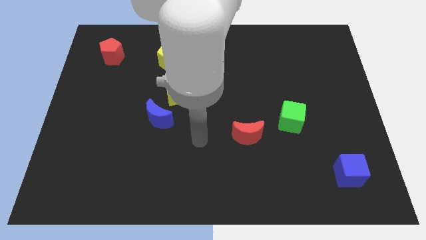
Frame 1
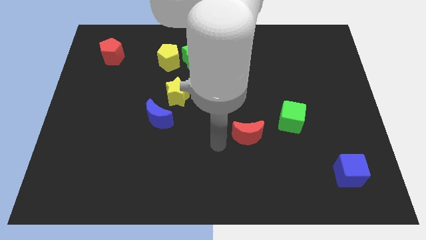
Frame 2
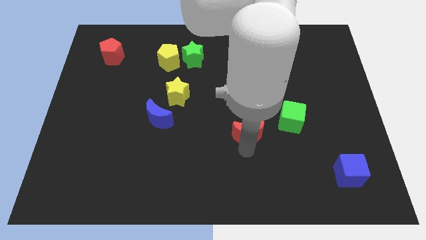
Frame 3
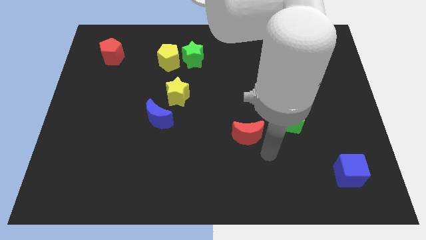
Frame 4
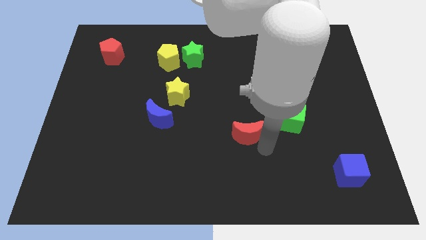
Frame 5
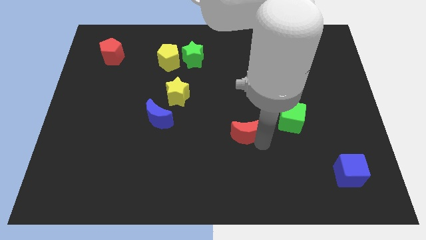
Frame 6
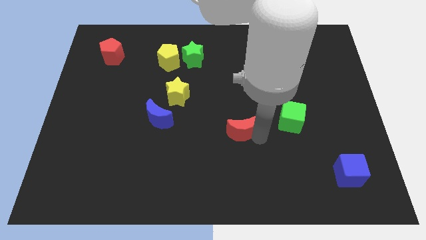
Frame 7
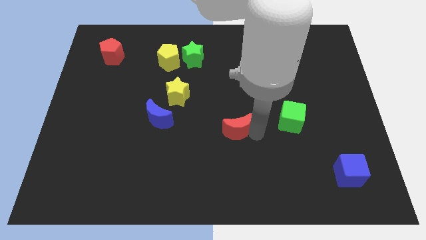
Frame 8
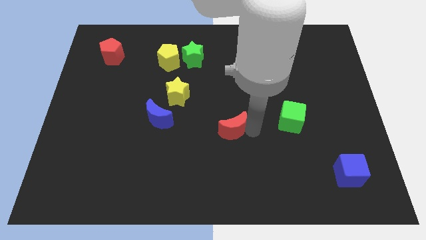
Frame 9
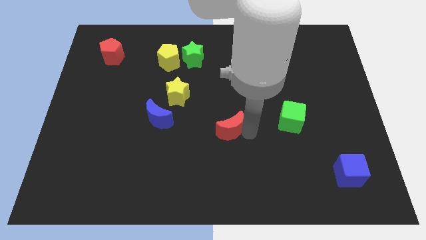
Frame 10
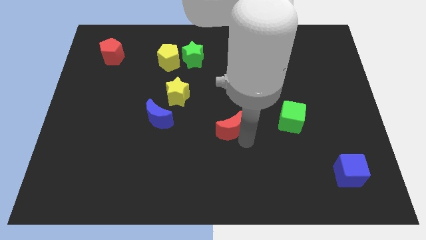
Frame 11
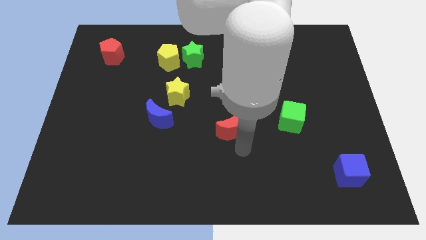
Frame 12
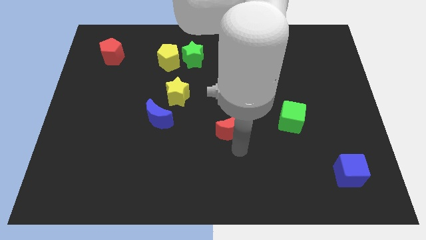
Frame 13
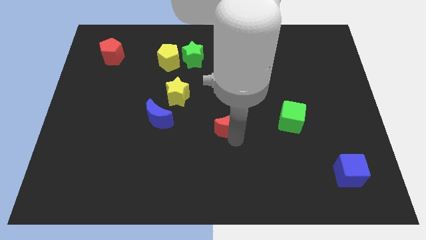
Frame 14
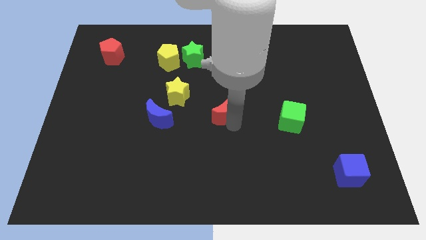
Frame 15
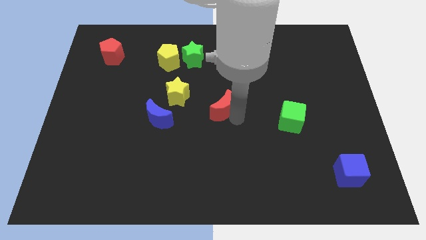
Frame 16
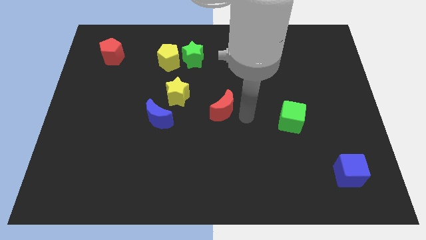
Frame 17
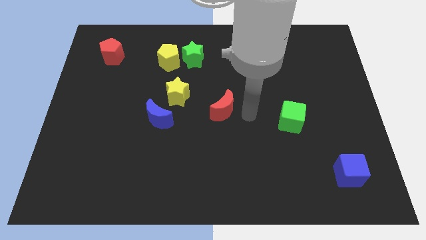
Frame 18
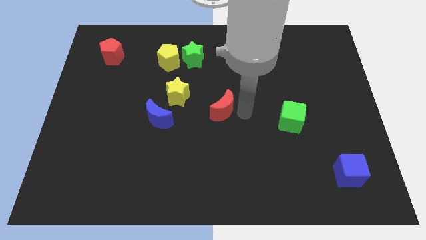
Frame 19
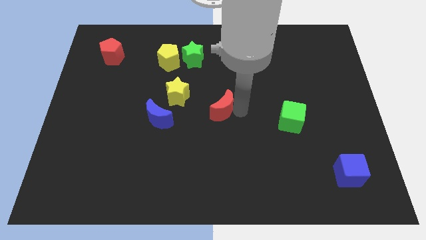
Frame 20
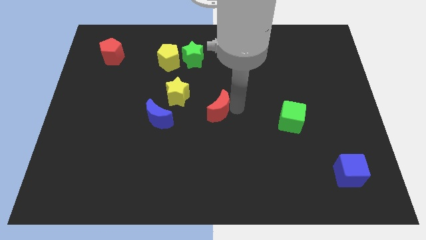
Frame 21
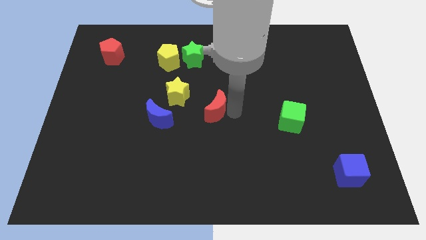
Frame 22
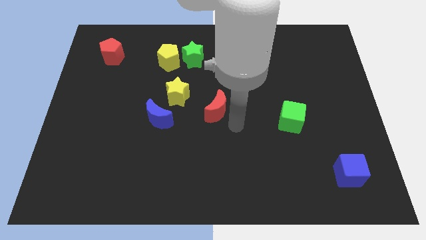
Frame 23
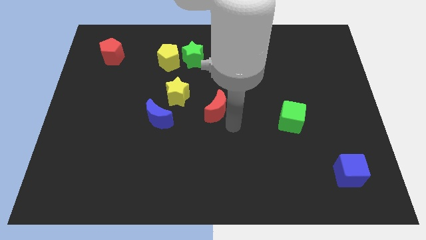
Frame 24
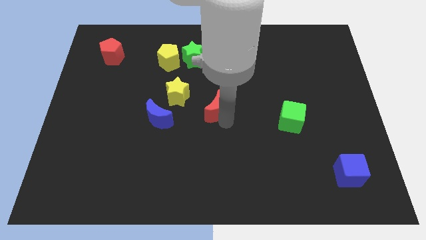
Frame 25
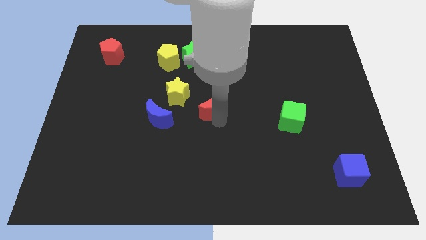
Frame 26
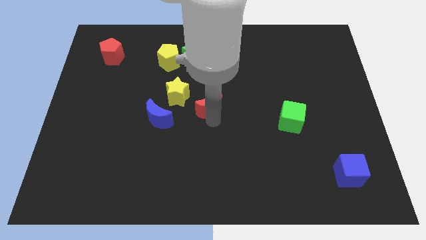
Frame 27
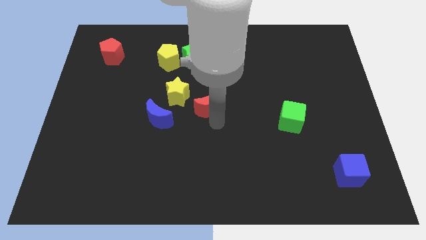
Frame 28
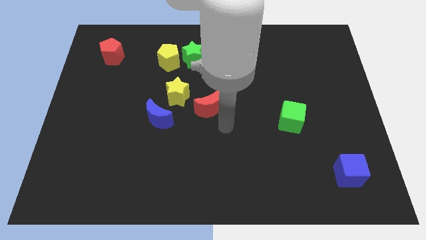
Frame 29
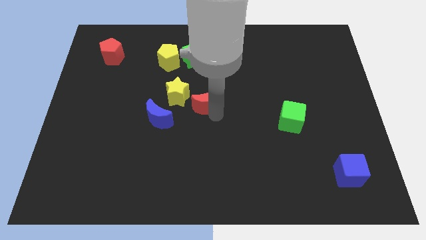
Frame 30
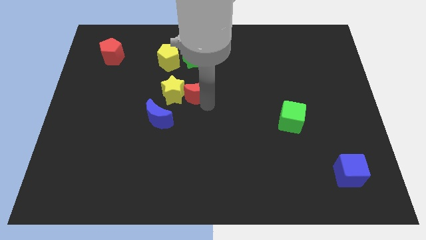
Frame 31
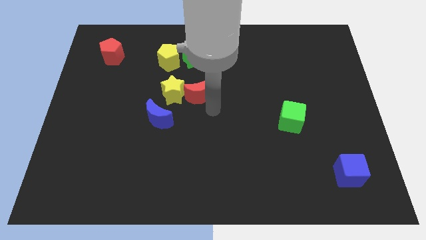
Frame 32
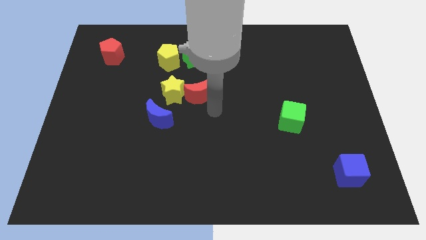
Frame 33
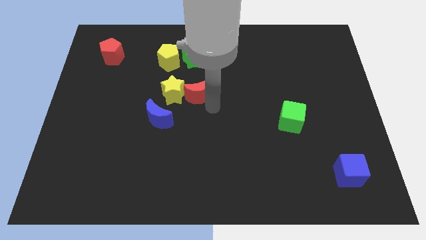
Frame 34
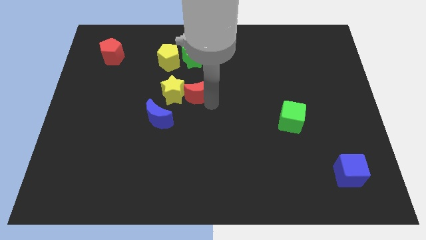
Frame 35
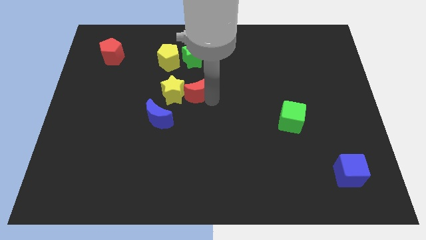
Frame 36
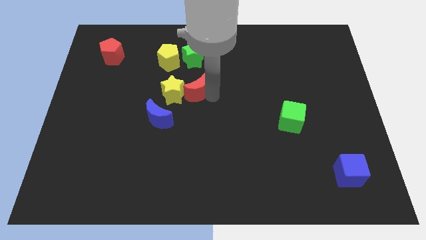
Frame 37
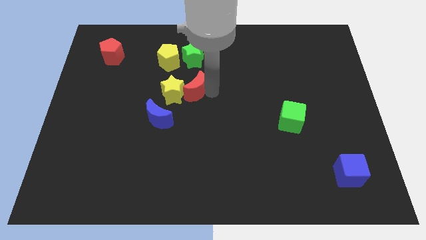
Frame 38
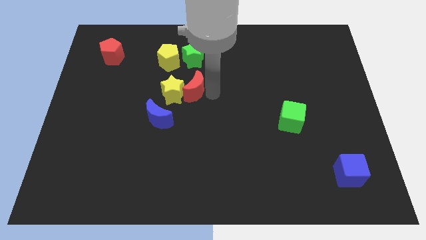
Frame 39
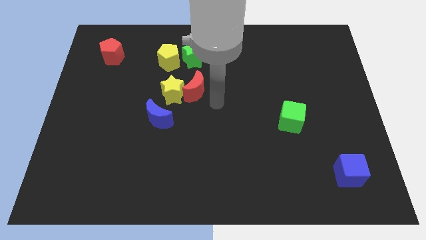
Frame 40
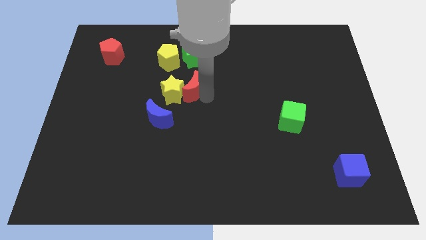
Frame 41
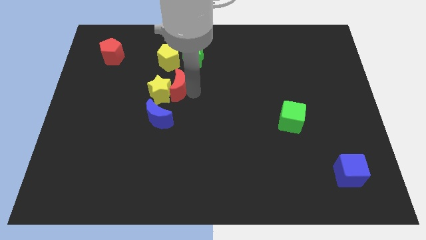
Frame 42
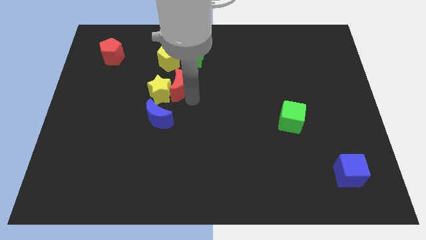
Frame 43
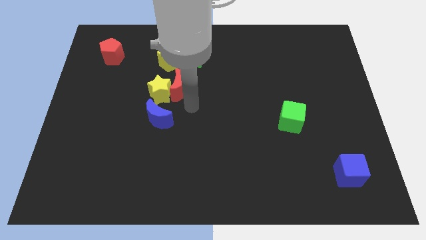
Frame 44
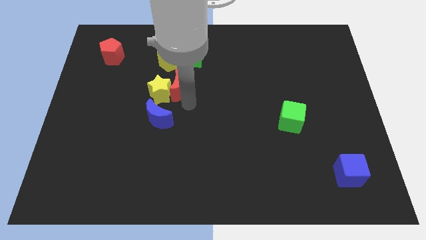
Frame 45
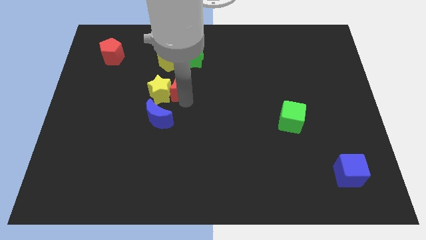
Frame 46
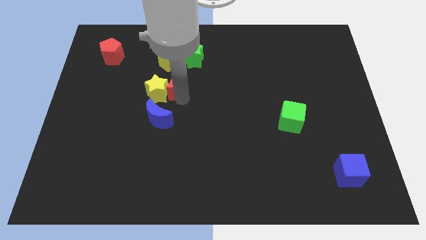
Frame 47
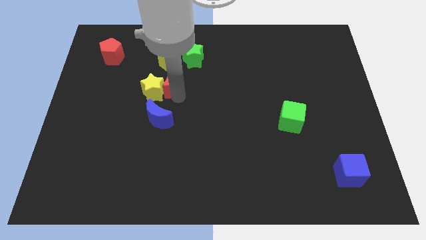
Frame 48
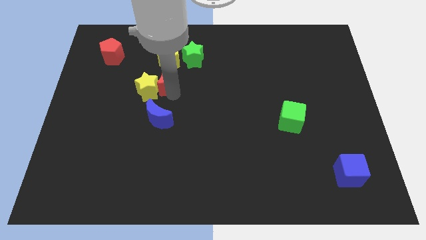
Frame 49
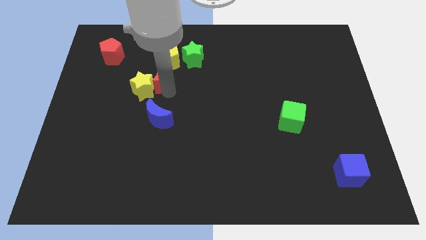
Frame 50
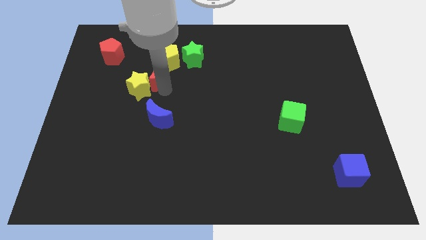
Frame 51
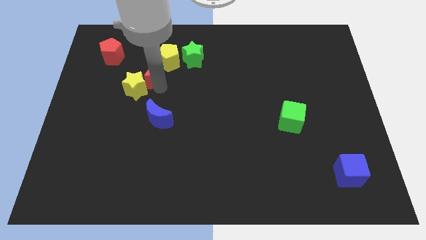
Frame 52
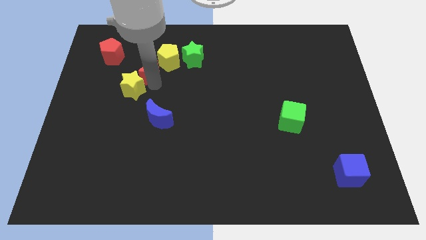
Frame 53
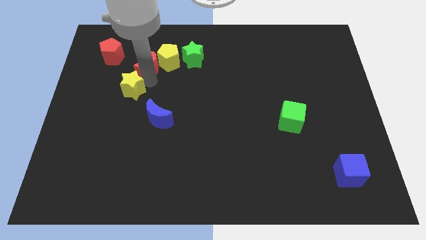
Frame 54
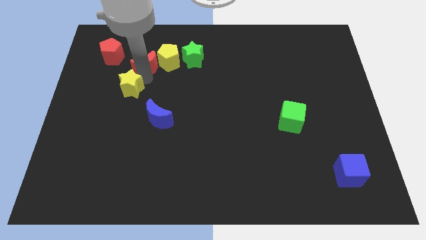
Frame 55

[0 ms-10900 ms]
put the red moon to the right side of the red pentagon

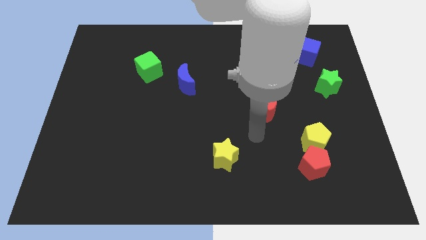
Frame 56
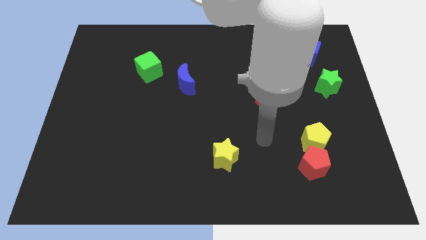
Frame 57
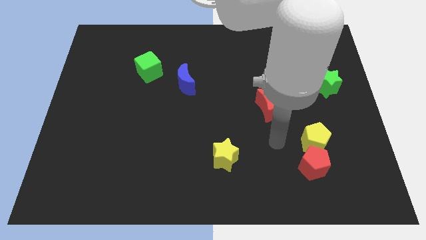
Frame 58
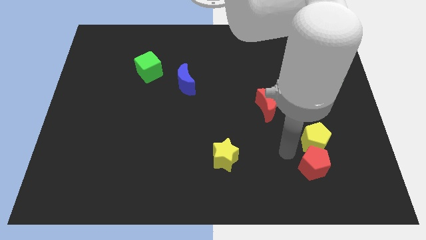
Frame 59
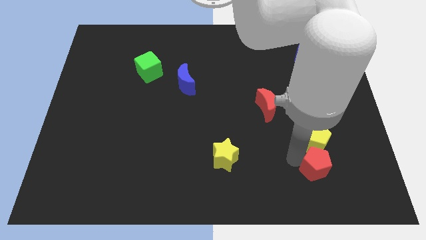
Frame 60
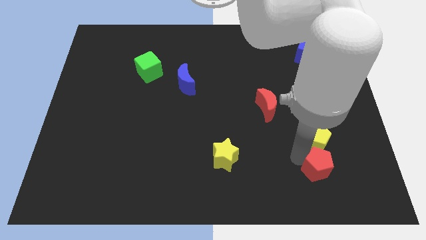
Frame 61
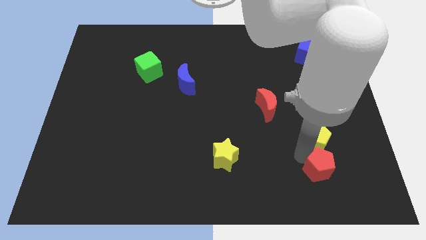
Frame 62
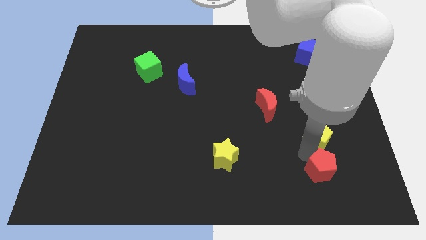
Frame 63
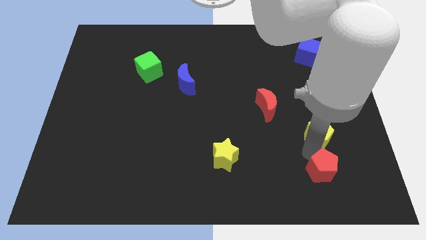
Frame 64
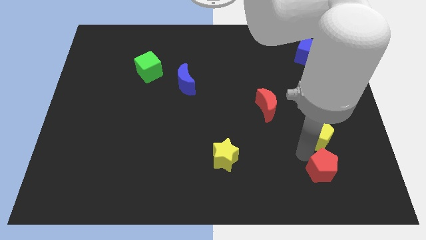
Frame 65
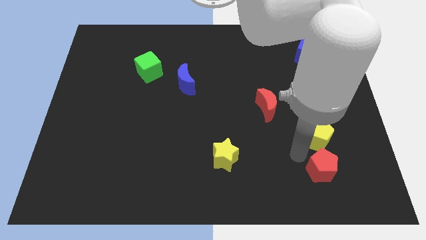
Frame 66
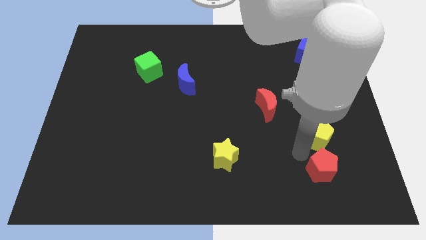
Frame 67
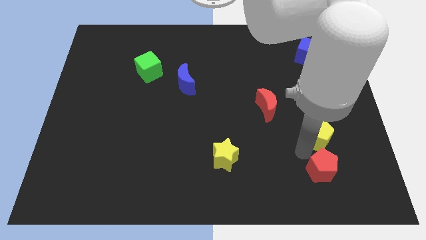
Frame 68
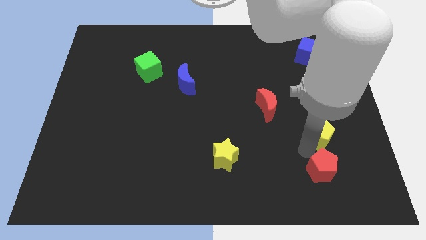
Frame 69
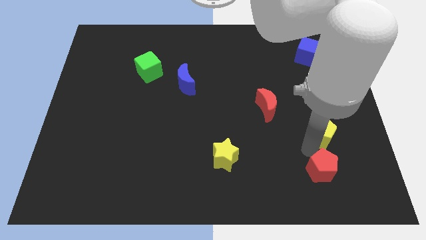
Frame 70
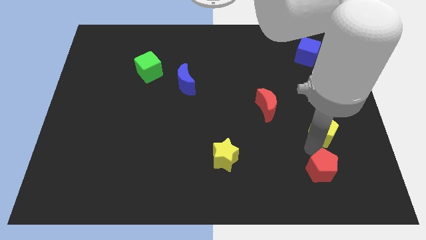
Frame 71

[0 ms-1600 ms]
move the yellow pentagon to the bottom side of the green star
